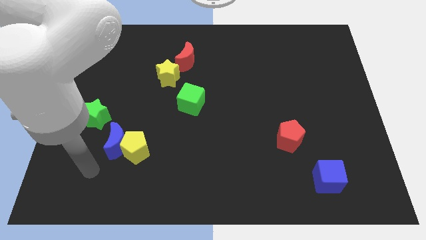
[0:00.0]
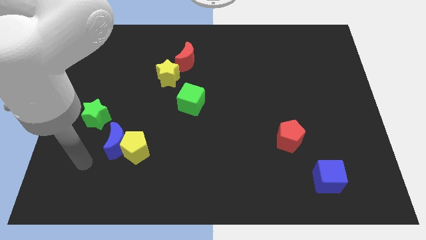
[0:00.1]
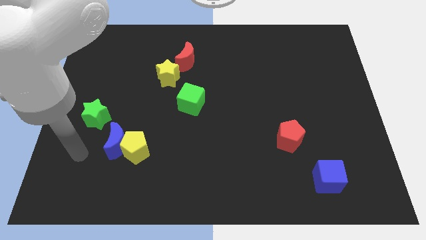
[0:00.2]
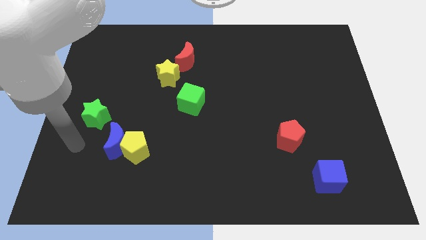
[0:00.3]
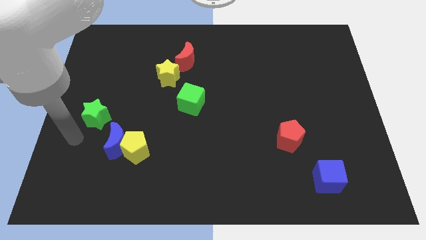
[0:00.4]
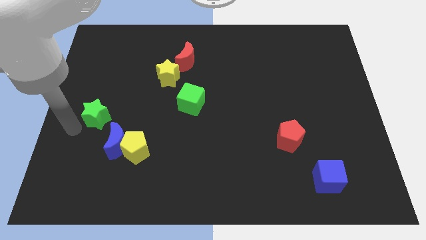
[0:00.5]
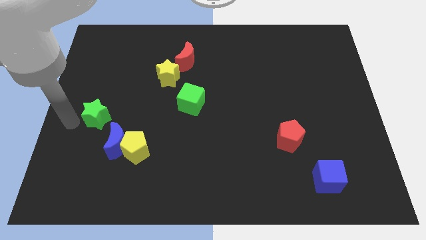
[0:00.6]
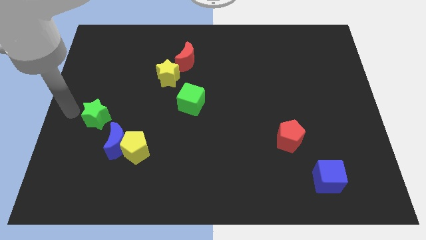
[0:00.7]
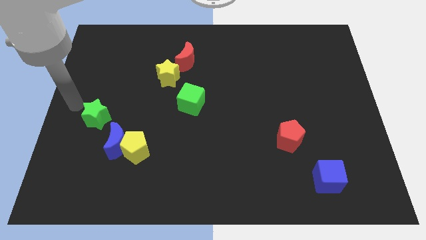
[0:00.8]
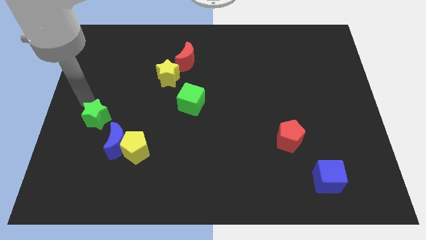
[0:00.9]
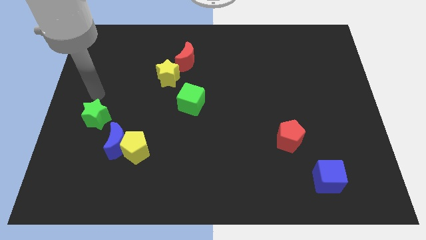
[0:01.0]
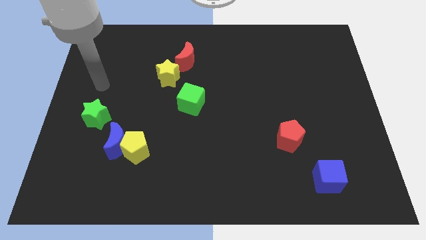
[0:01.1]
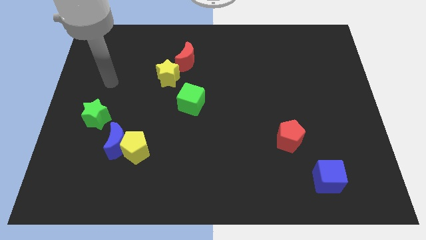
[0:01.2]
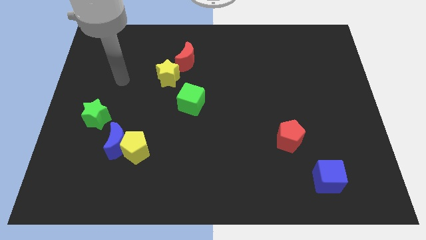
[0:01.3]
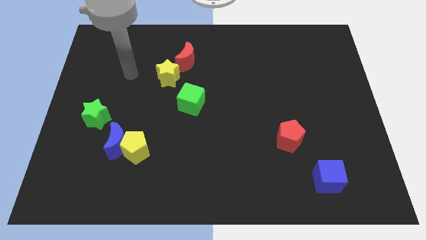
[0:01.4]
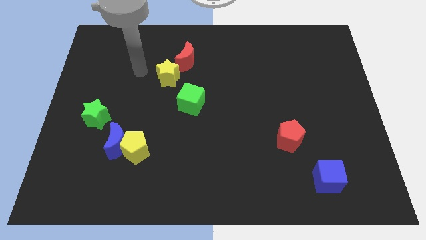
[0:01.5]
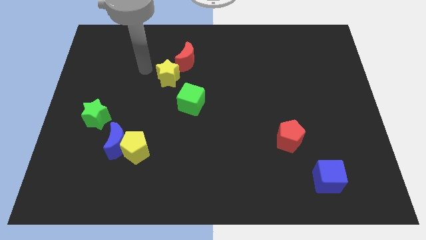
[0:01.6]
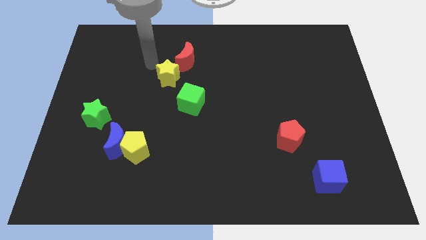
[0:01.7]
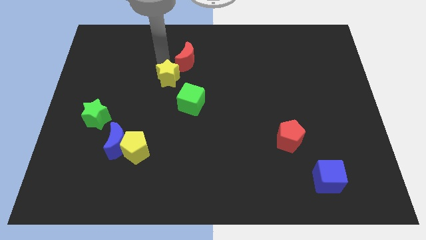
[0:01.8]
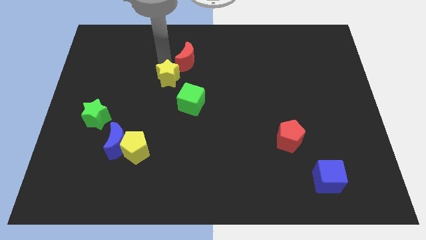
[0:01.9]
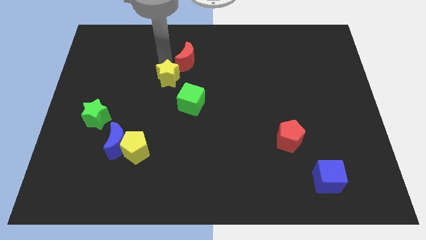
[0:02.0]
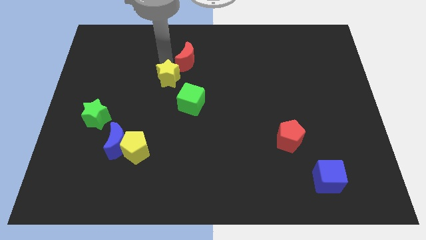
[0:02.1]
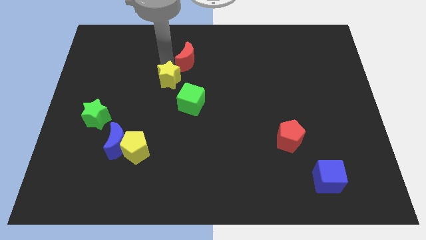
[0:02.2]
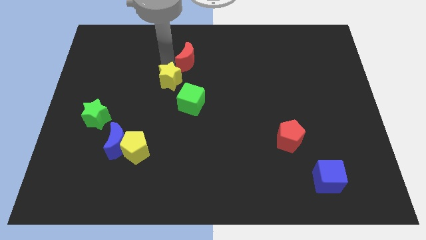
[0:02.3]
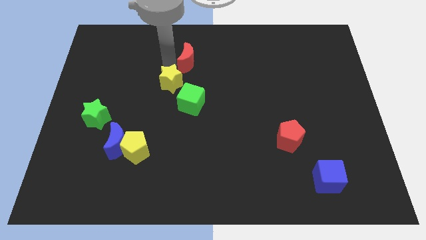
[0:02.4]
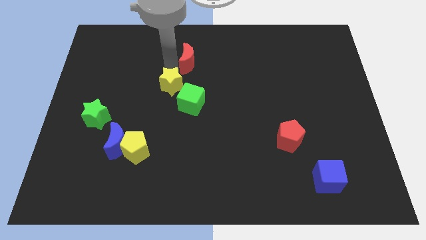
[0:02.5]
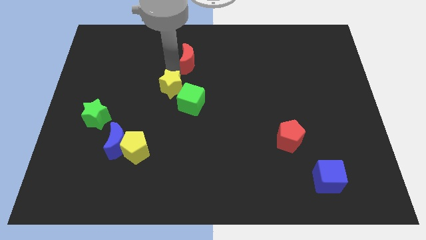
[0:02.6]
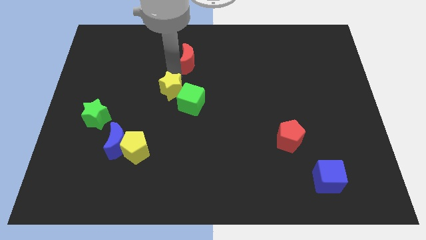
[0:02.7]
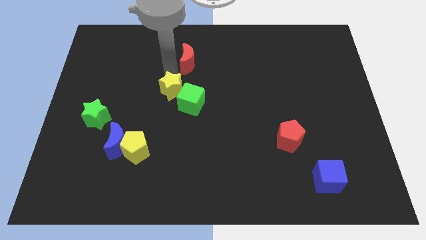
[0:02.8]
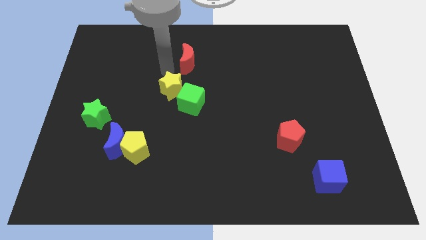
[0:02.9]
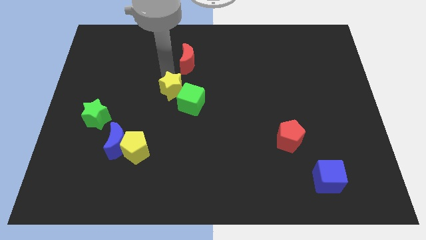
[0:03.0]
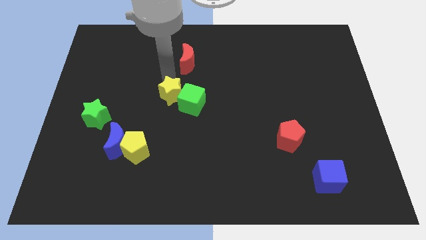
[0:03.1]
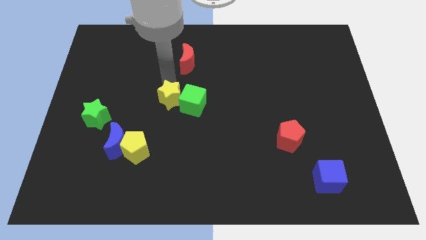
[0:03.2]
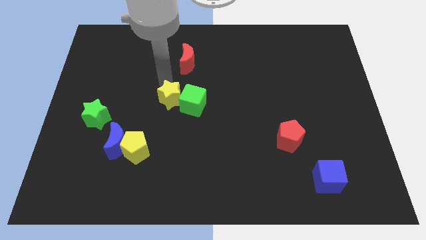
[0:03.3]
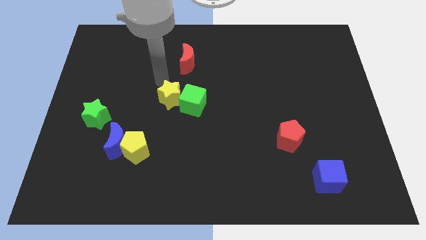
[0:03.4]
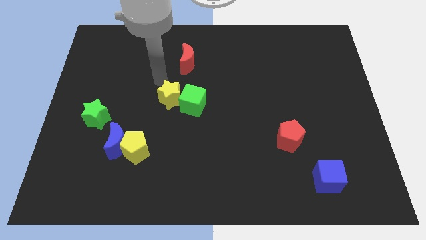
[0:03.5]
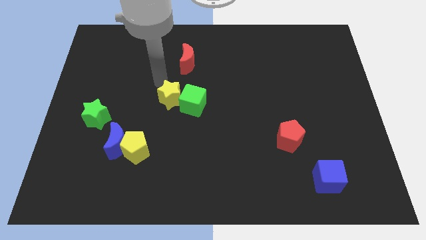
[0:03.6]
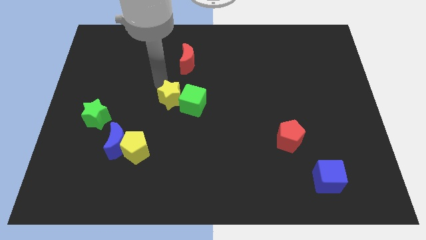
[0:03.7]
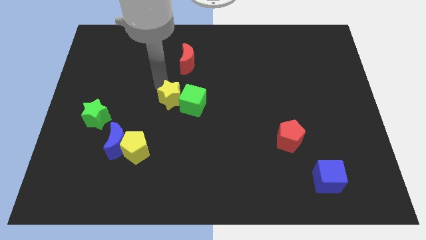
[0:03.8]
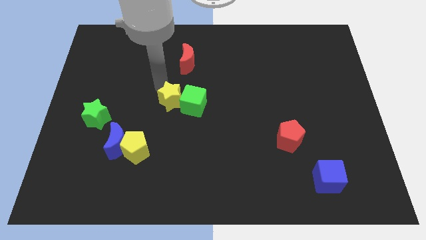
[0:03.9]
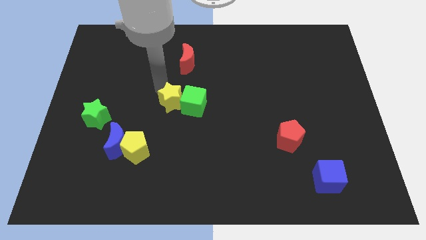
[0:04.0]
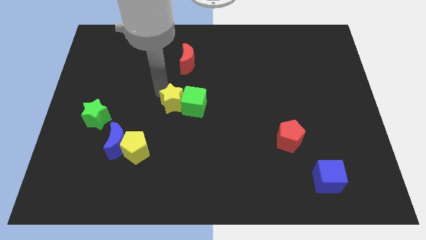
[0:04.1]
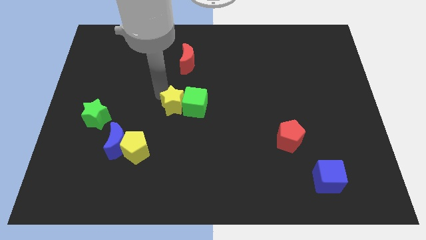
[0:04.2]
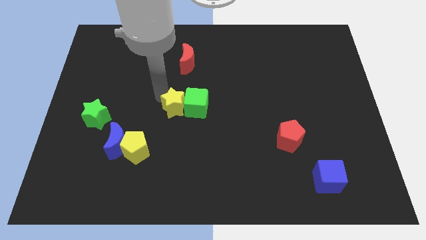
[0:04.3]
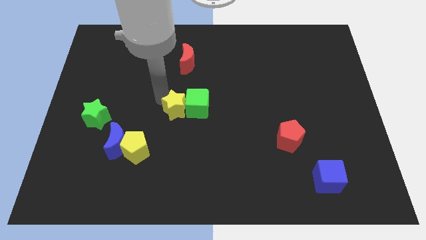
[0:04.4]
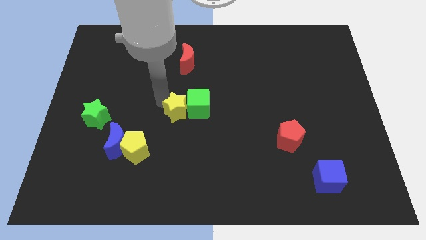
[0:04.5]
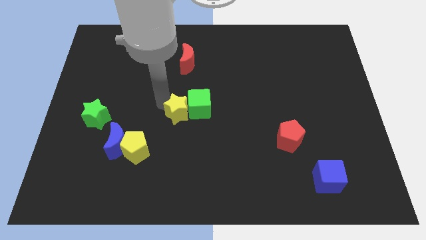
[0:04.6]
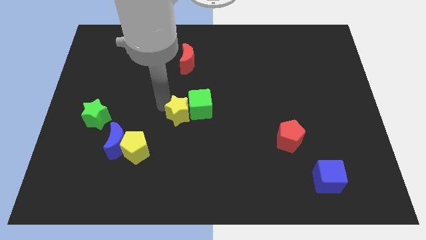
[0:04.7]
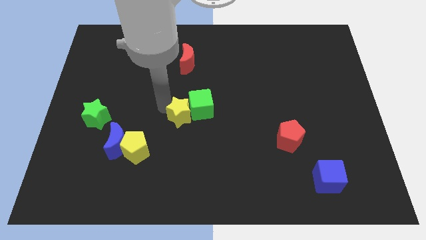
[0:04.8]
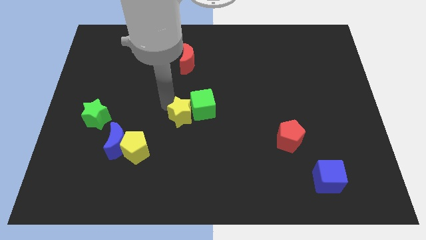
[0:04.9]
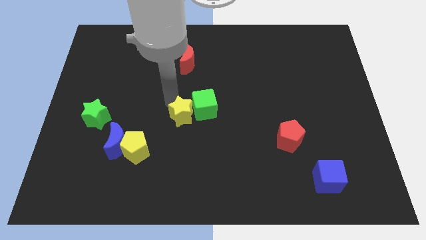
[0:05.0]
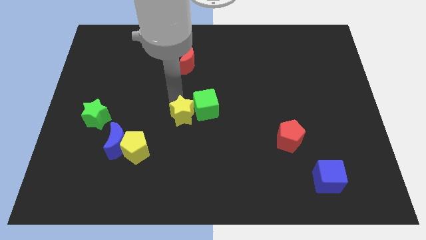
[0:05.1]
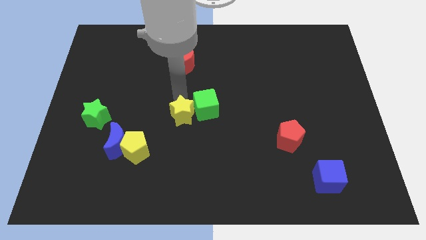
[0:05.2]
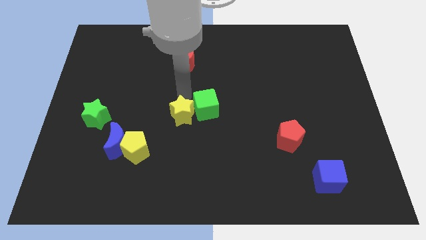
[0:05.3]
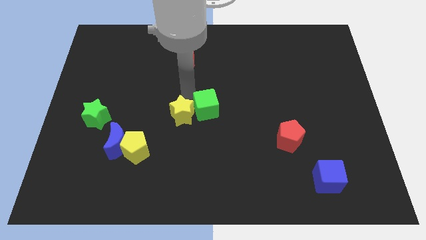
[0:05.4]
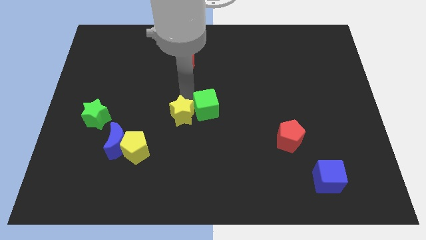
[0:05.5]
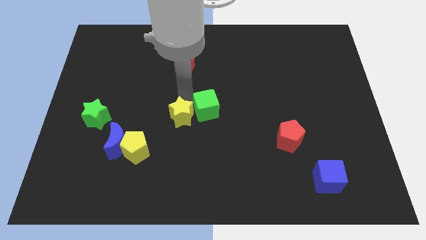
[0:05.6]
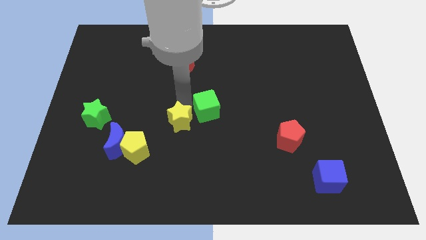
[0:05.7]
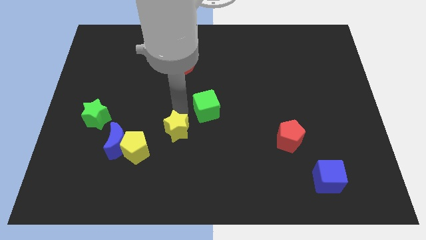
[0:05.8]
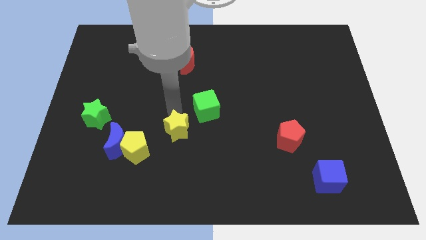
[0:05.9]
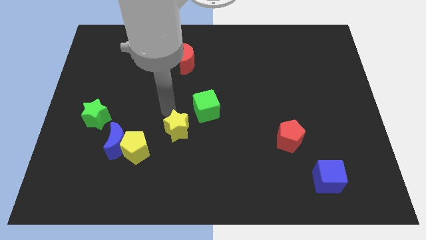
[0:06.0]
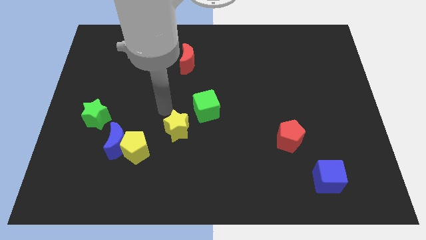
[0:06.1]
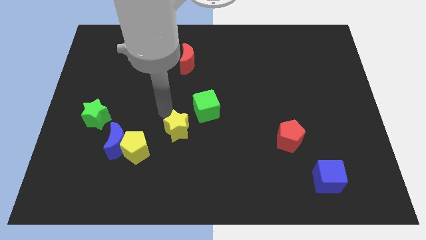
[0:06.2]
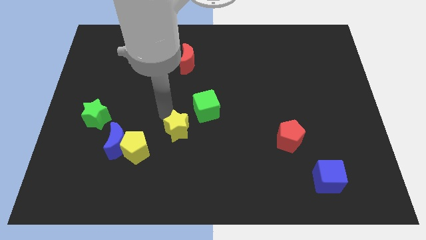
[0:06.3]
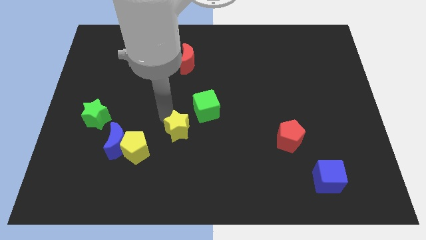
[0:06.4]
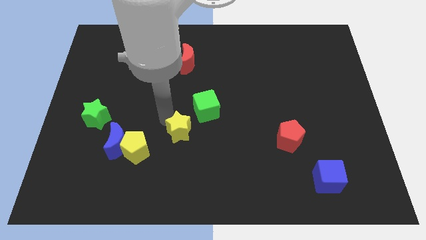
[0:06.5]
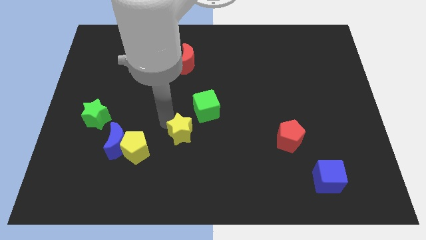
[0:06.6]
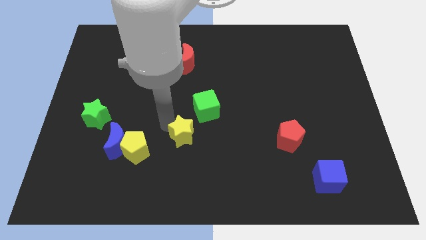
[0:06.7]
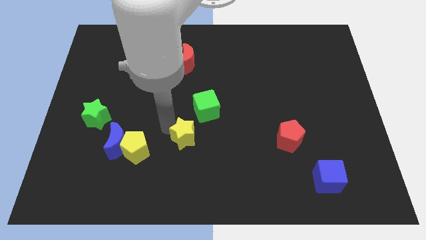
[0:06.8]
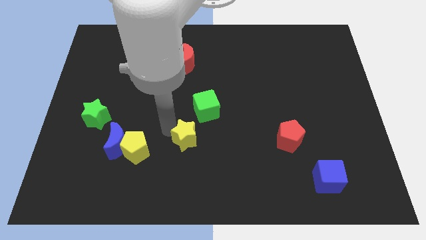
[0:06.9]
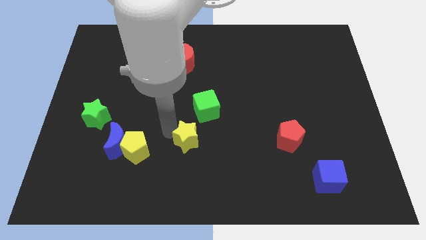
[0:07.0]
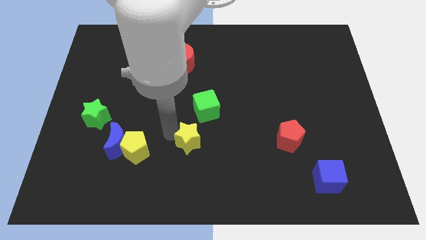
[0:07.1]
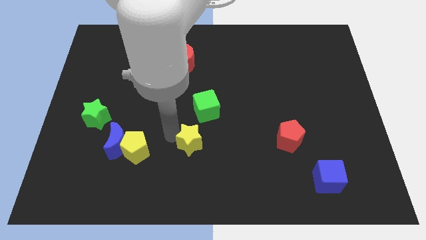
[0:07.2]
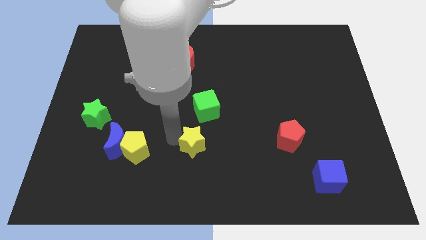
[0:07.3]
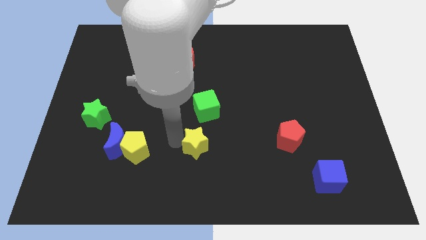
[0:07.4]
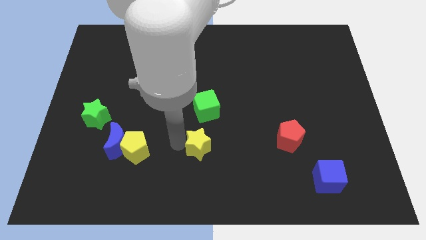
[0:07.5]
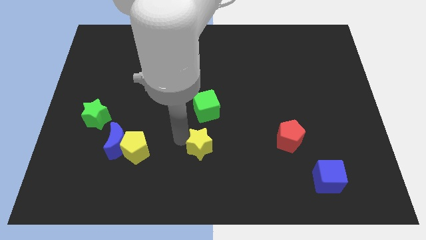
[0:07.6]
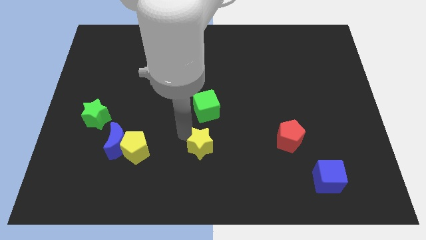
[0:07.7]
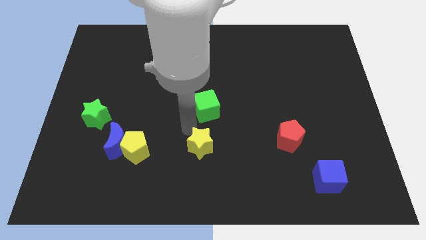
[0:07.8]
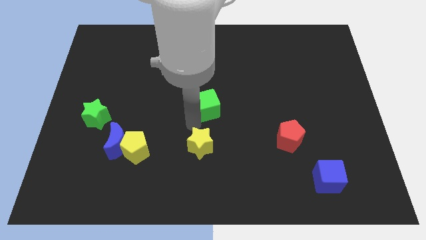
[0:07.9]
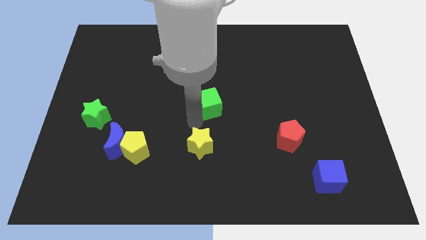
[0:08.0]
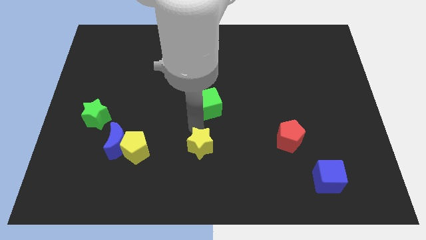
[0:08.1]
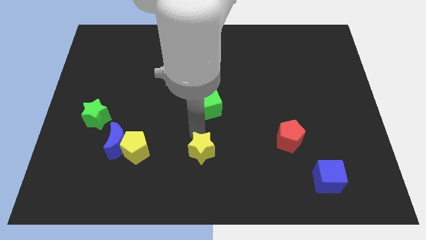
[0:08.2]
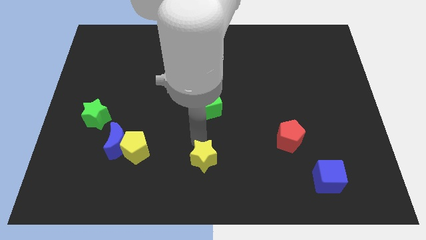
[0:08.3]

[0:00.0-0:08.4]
slide the yellow star to the bottom
